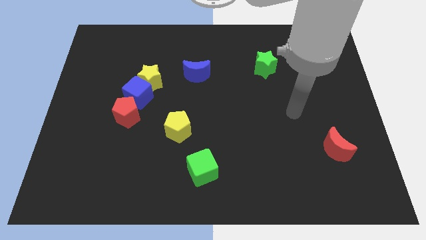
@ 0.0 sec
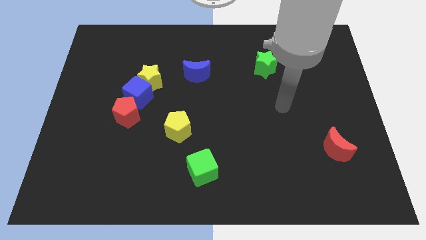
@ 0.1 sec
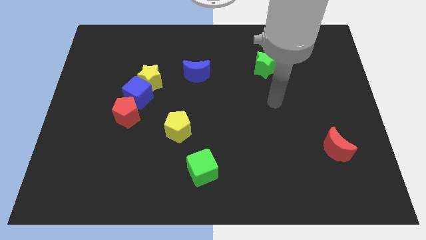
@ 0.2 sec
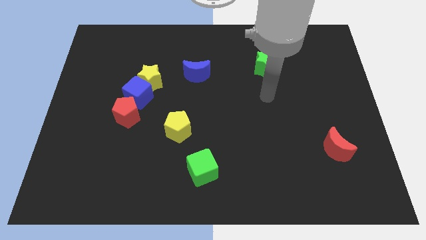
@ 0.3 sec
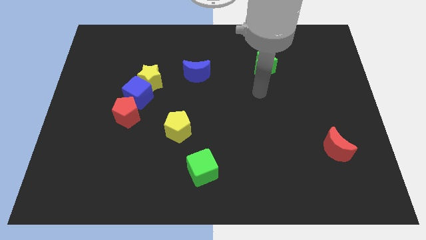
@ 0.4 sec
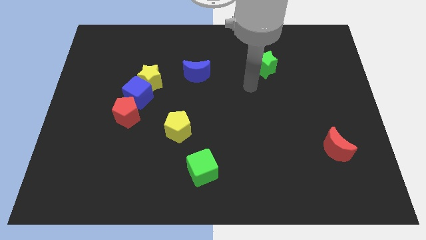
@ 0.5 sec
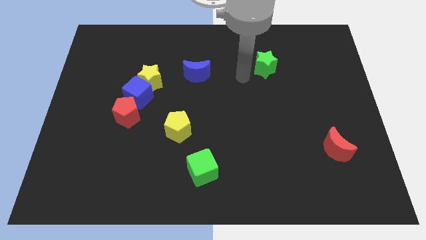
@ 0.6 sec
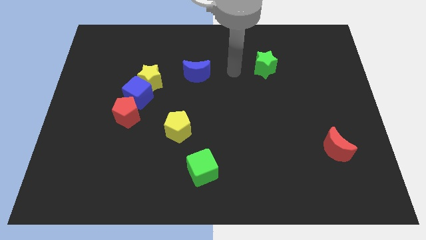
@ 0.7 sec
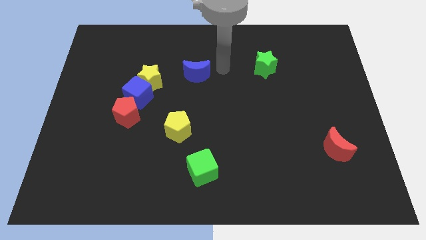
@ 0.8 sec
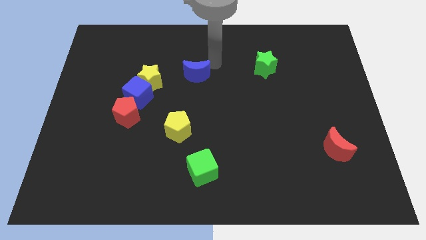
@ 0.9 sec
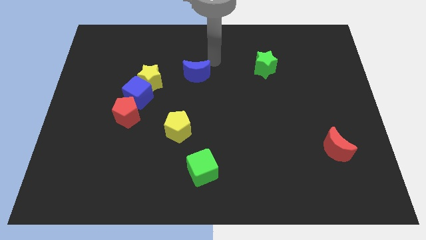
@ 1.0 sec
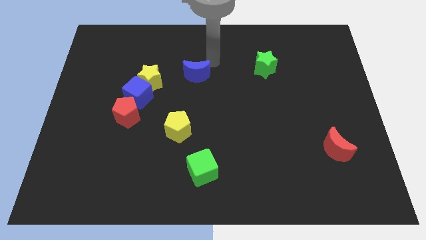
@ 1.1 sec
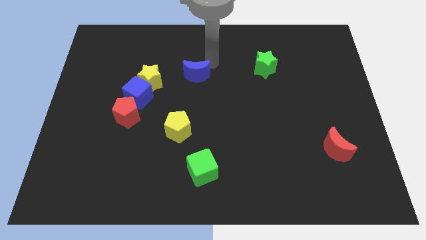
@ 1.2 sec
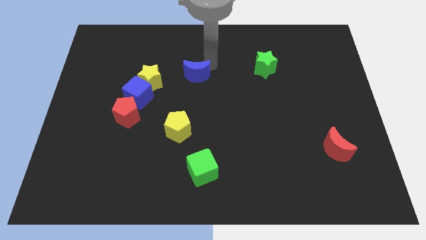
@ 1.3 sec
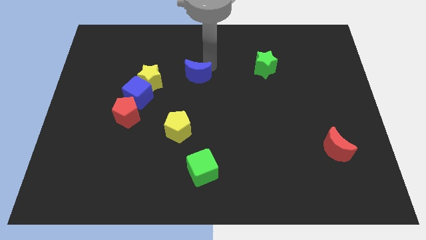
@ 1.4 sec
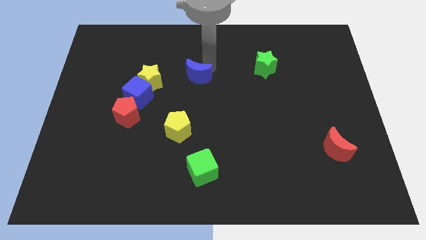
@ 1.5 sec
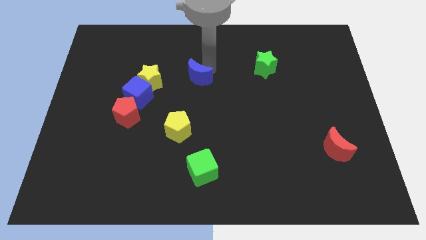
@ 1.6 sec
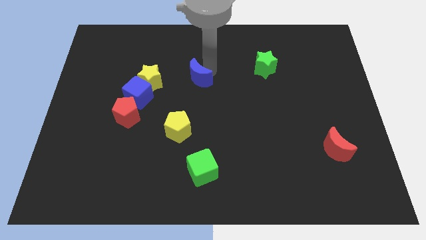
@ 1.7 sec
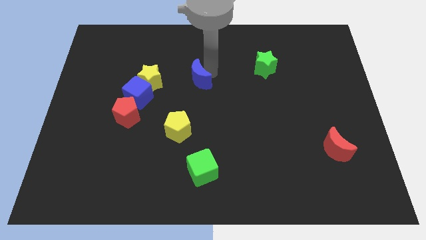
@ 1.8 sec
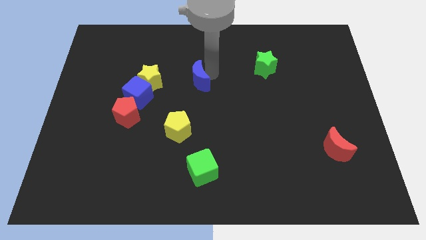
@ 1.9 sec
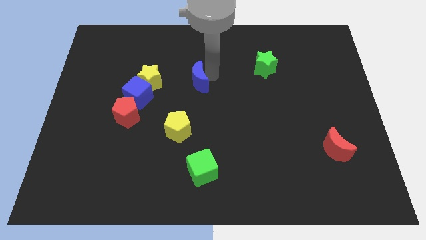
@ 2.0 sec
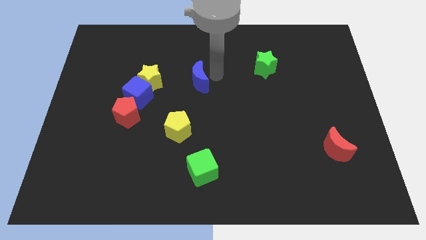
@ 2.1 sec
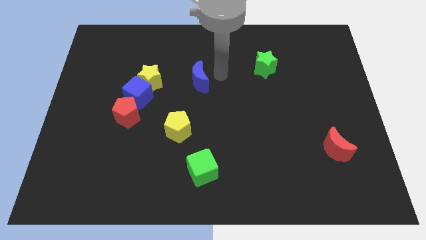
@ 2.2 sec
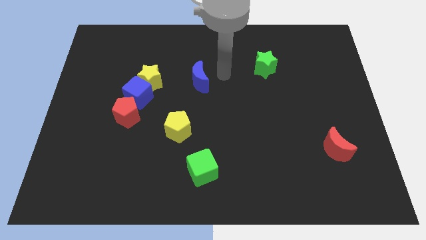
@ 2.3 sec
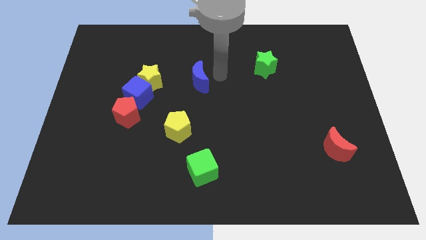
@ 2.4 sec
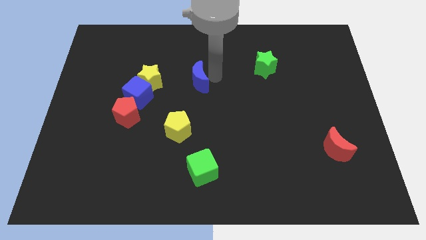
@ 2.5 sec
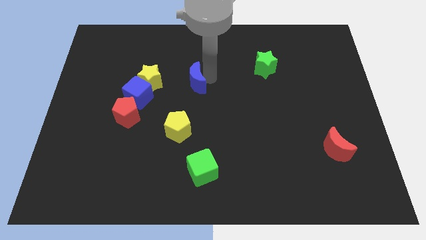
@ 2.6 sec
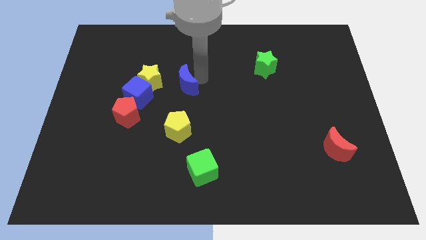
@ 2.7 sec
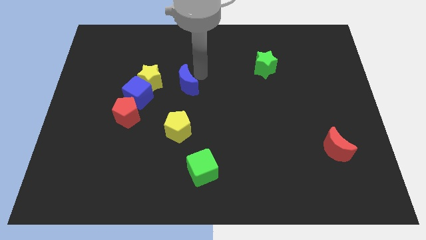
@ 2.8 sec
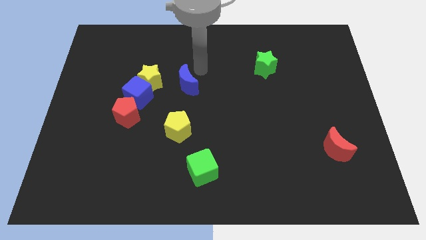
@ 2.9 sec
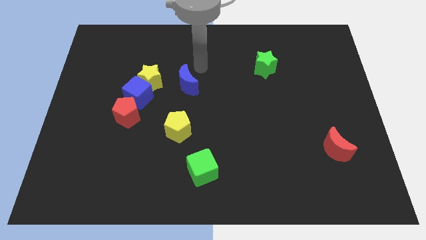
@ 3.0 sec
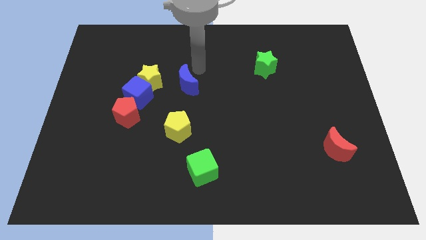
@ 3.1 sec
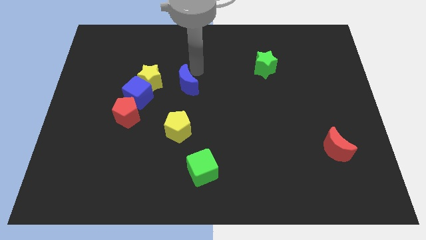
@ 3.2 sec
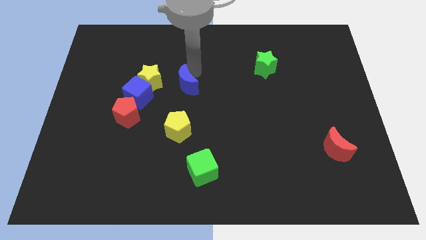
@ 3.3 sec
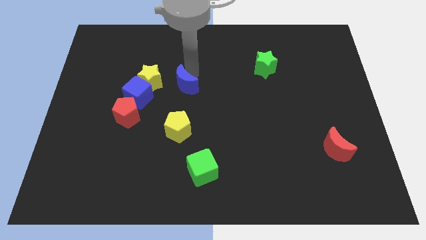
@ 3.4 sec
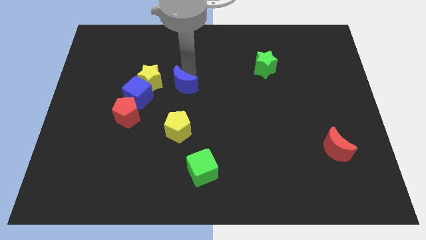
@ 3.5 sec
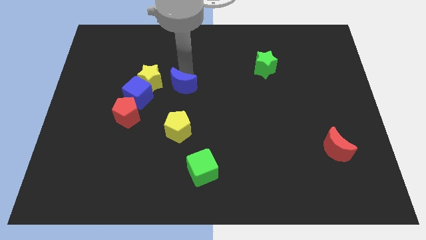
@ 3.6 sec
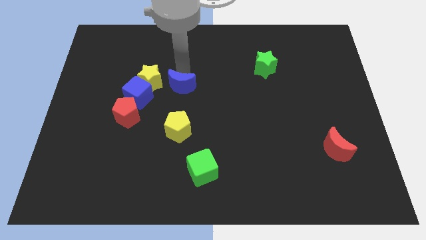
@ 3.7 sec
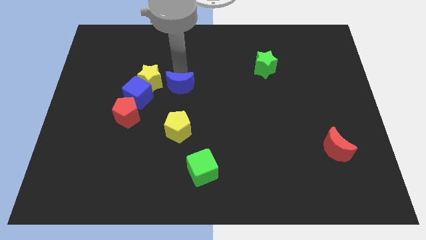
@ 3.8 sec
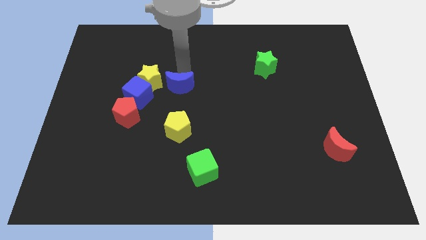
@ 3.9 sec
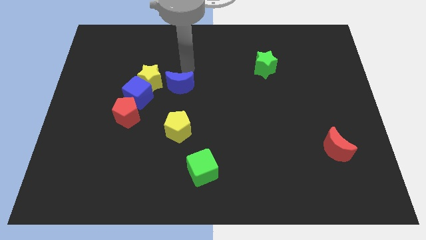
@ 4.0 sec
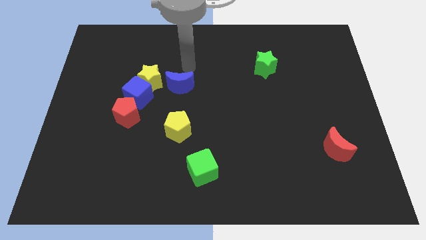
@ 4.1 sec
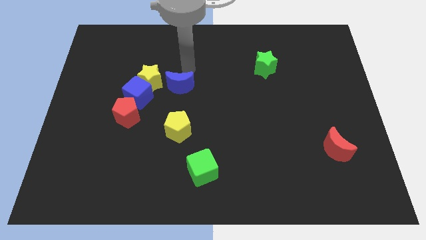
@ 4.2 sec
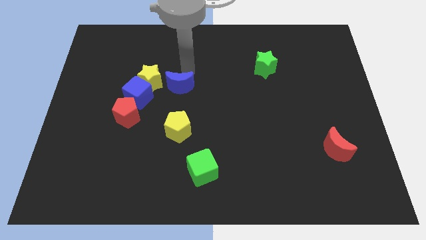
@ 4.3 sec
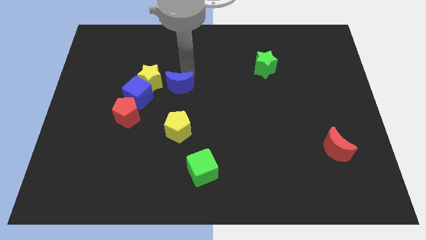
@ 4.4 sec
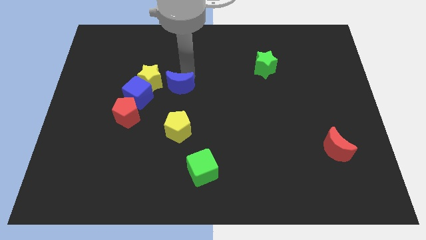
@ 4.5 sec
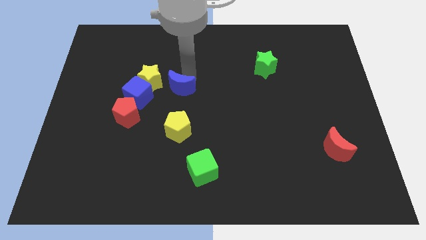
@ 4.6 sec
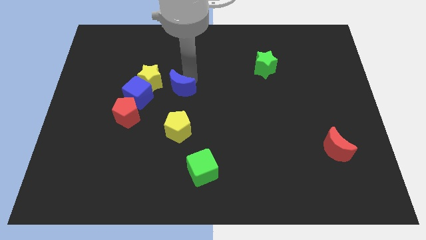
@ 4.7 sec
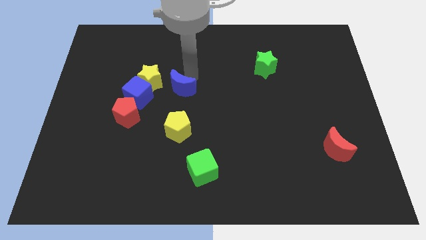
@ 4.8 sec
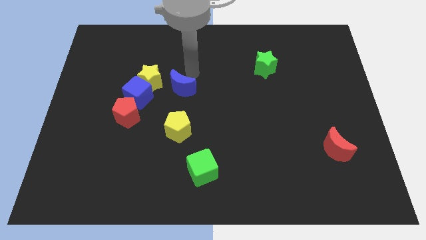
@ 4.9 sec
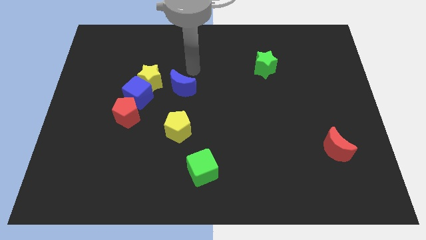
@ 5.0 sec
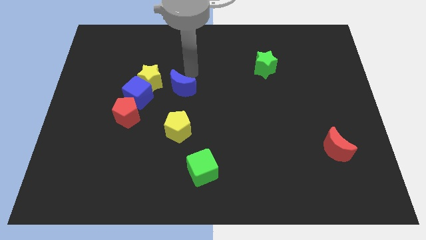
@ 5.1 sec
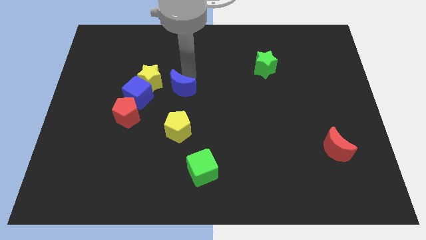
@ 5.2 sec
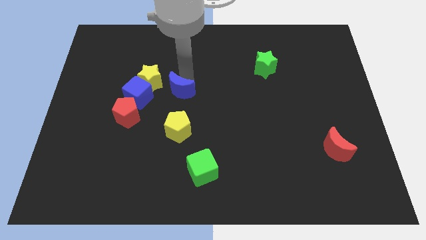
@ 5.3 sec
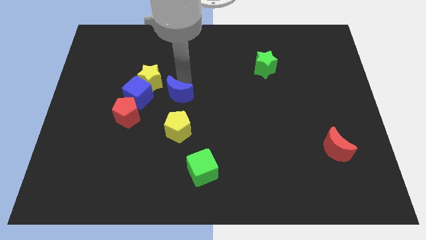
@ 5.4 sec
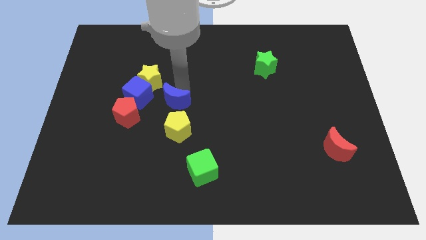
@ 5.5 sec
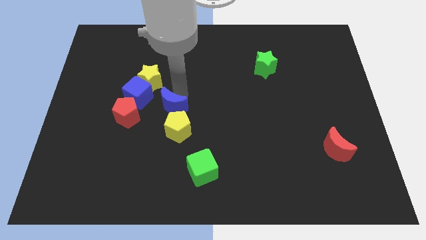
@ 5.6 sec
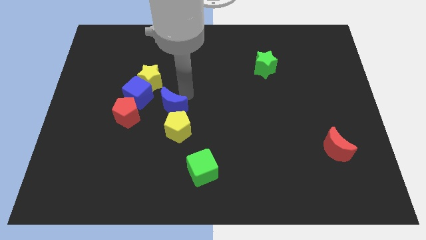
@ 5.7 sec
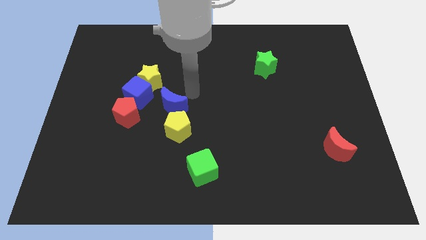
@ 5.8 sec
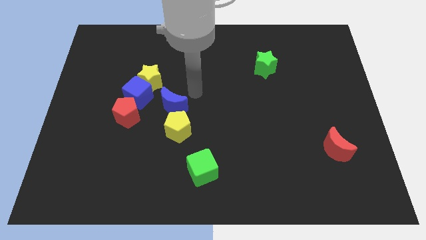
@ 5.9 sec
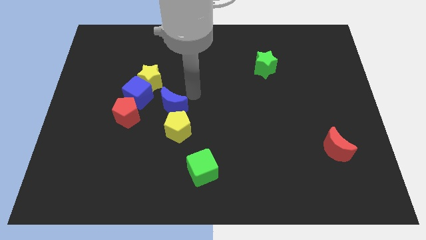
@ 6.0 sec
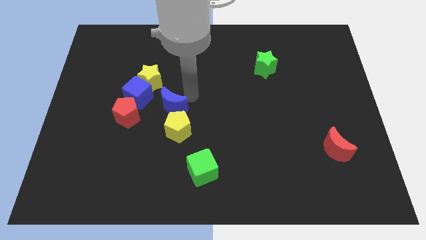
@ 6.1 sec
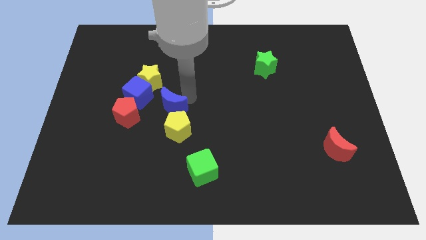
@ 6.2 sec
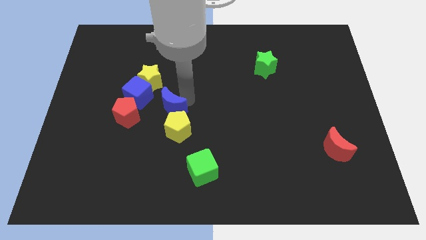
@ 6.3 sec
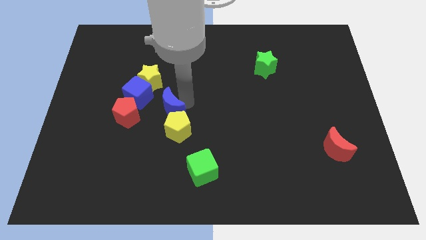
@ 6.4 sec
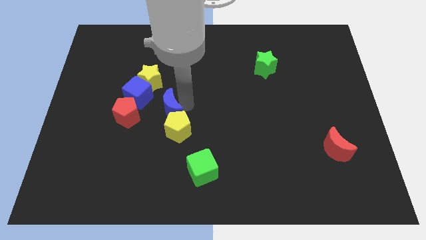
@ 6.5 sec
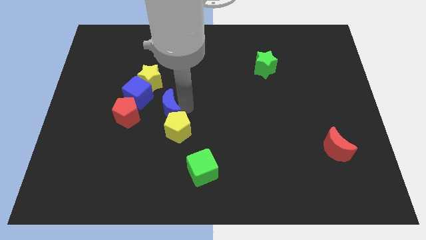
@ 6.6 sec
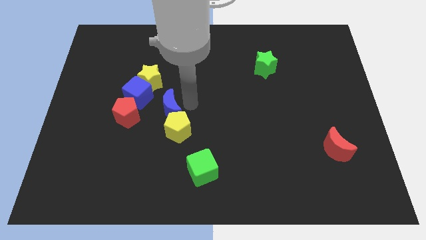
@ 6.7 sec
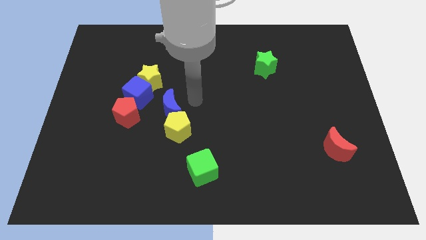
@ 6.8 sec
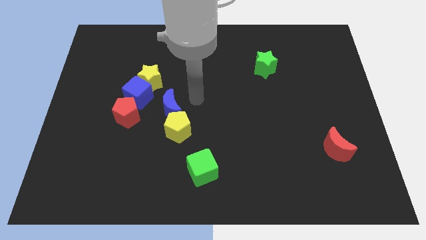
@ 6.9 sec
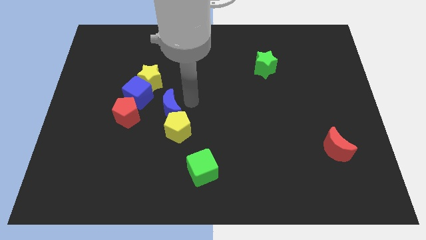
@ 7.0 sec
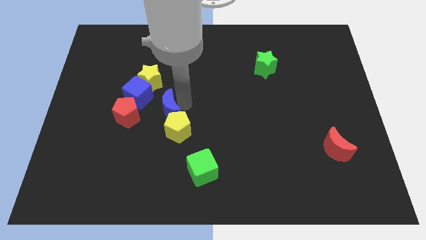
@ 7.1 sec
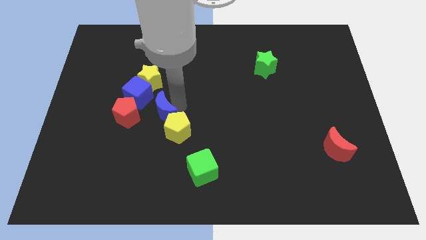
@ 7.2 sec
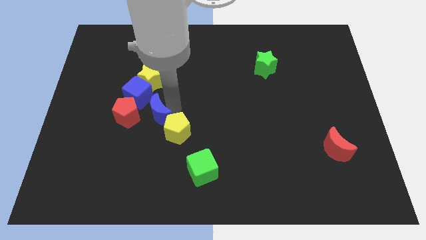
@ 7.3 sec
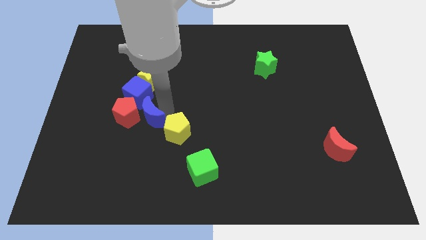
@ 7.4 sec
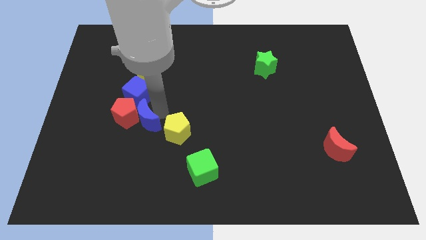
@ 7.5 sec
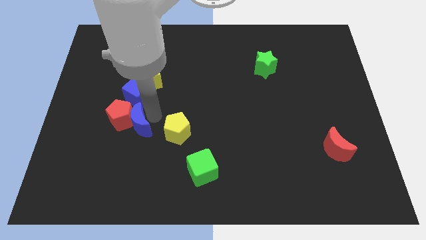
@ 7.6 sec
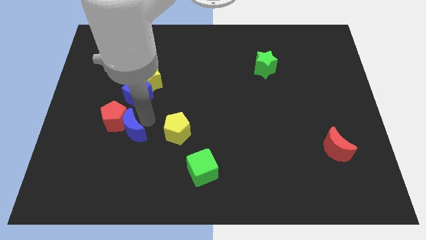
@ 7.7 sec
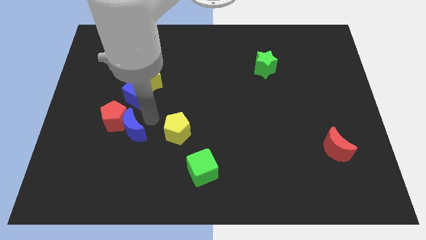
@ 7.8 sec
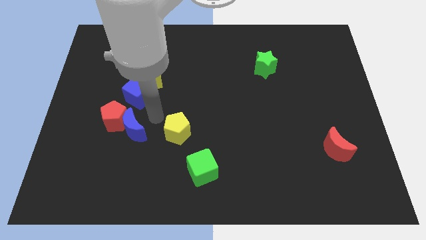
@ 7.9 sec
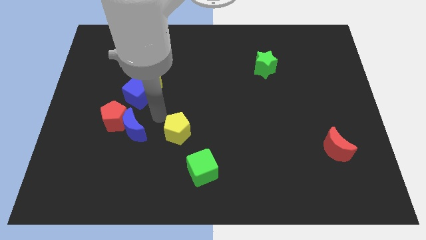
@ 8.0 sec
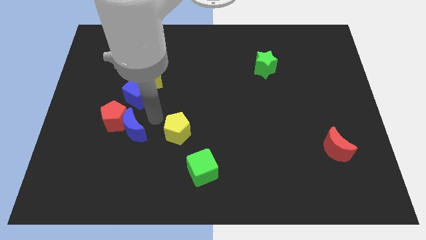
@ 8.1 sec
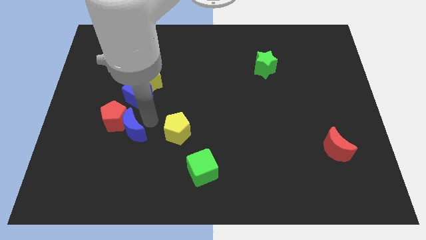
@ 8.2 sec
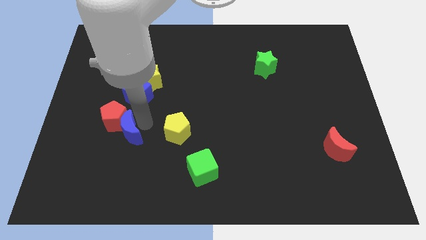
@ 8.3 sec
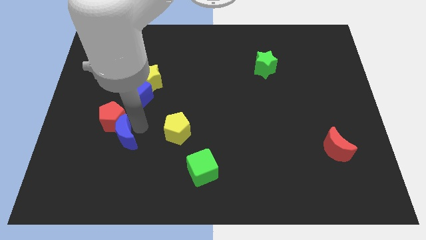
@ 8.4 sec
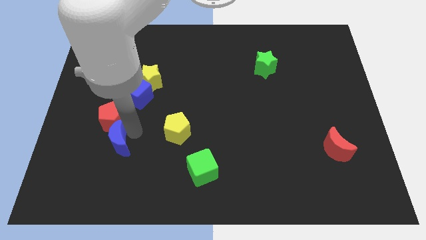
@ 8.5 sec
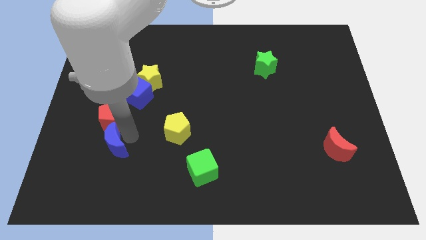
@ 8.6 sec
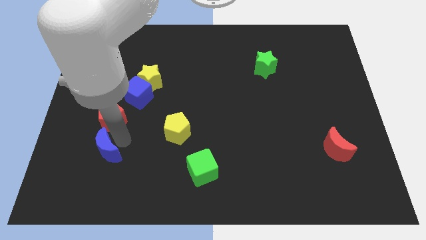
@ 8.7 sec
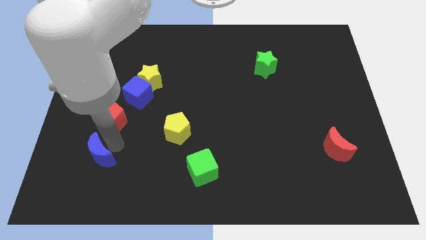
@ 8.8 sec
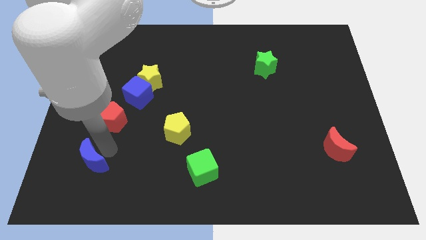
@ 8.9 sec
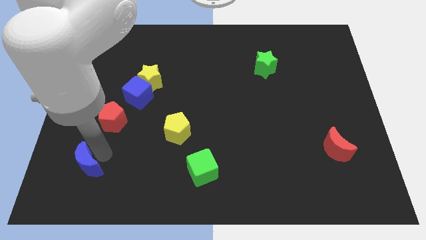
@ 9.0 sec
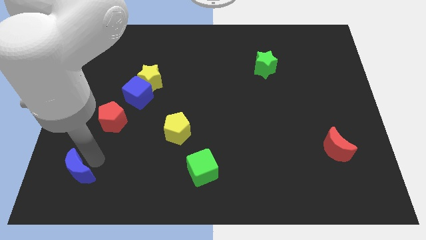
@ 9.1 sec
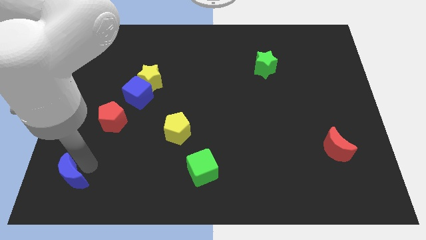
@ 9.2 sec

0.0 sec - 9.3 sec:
put the blue moon to the bottom left corner
